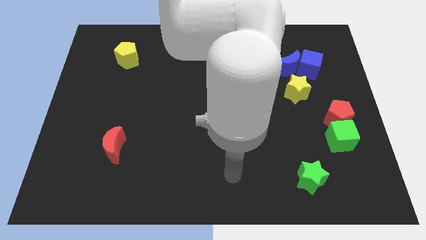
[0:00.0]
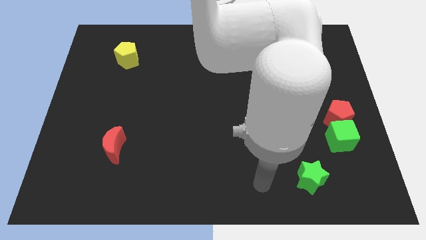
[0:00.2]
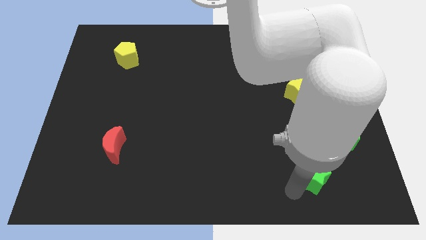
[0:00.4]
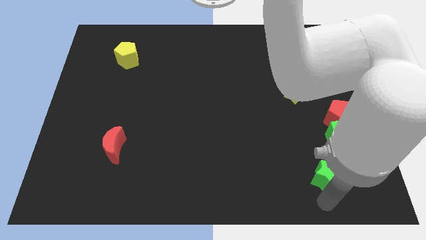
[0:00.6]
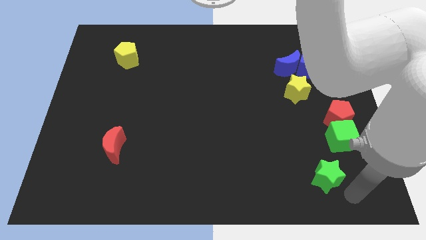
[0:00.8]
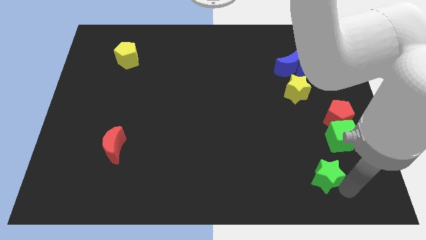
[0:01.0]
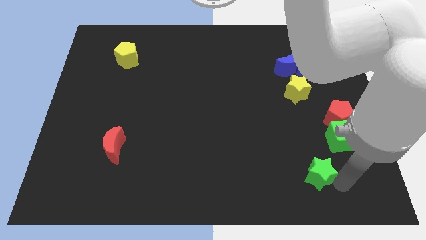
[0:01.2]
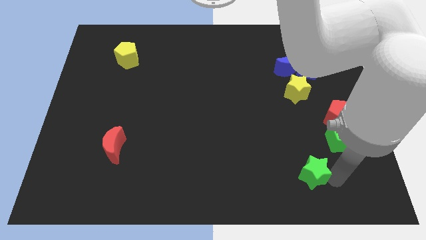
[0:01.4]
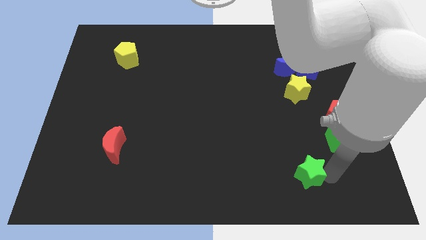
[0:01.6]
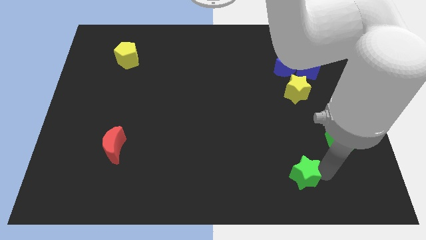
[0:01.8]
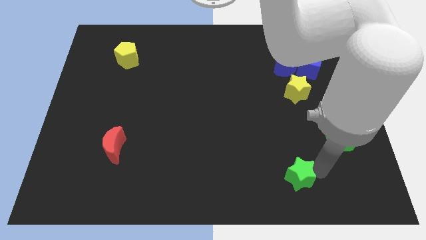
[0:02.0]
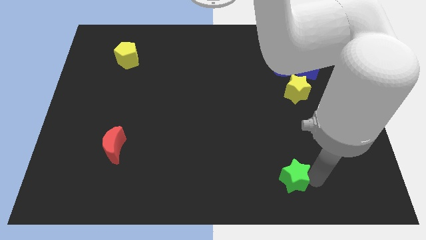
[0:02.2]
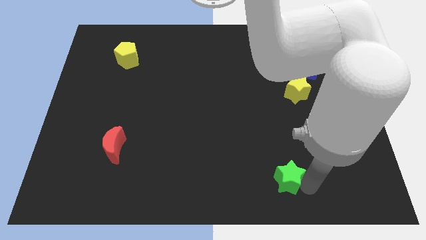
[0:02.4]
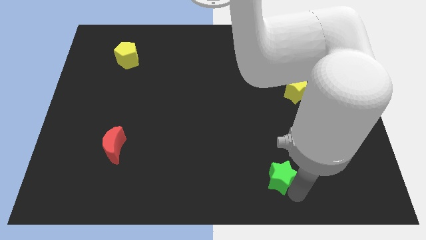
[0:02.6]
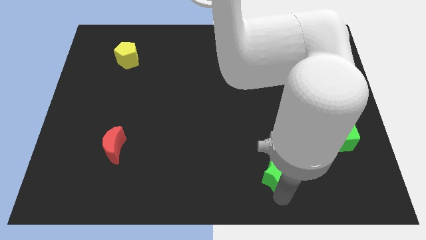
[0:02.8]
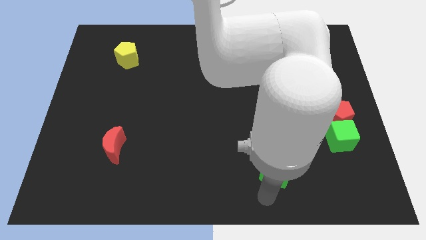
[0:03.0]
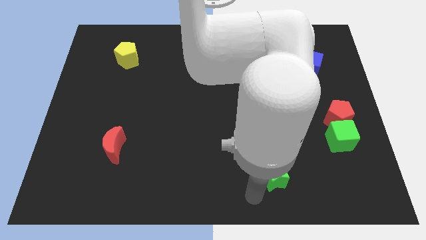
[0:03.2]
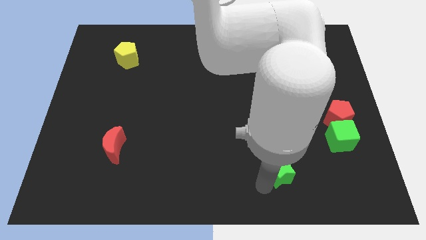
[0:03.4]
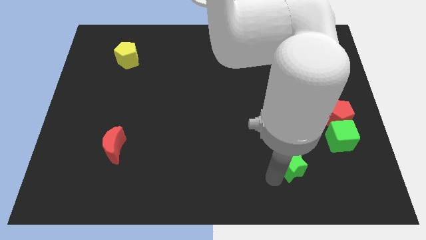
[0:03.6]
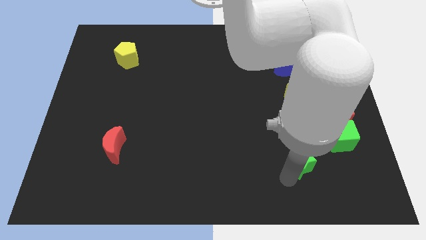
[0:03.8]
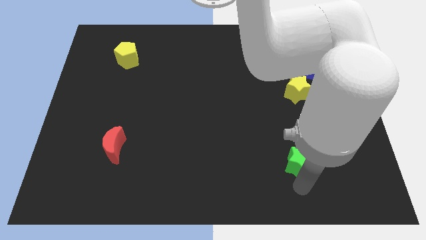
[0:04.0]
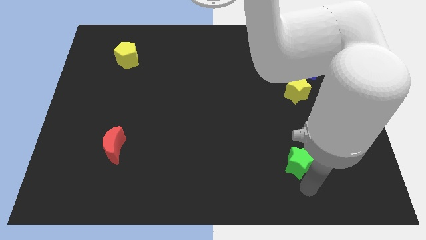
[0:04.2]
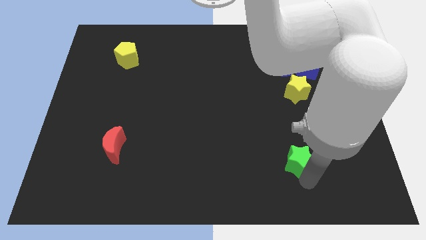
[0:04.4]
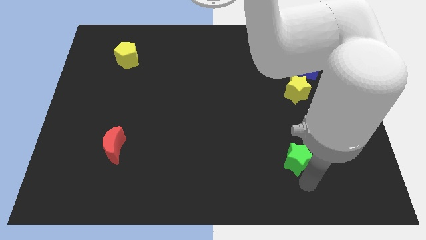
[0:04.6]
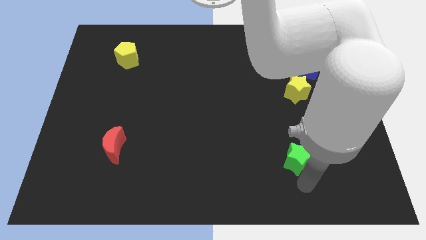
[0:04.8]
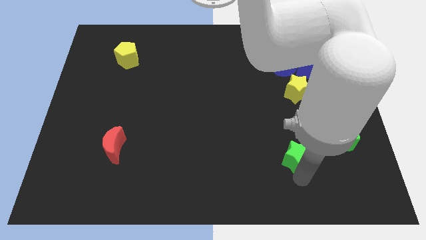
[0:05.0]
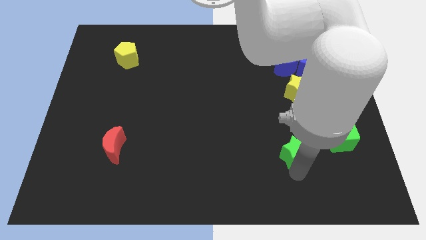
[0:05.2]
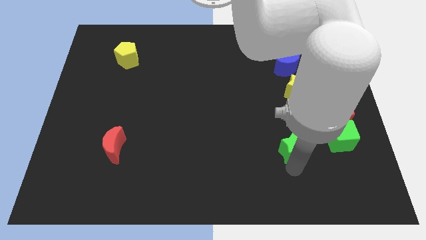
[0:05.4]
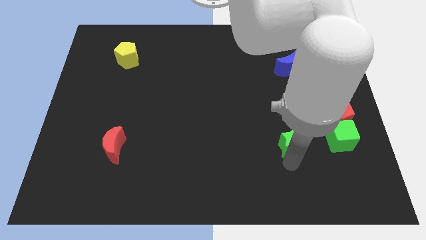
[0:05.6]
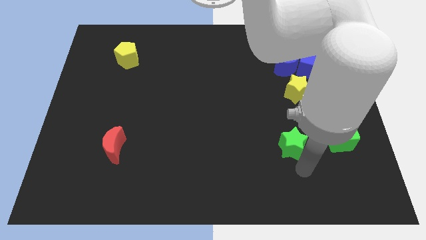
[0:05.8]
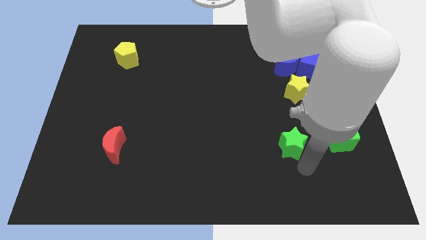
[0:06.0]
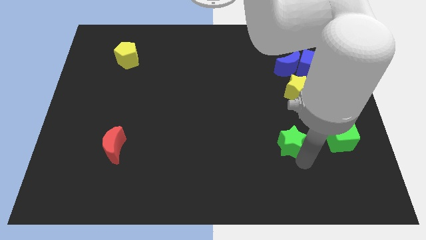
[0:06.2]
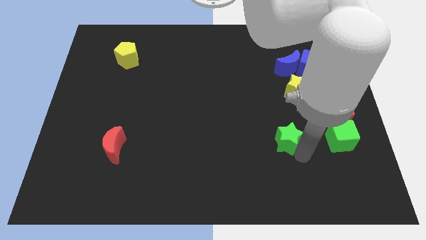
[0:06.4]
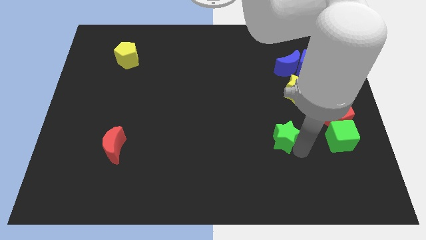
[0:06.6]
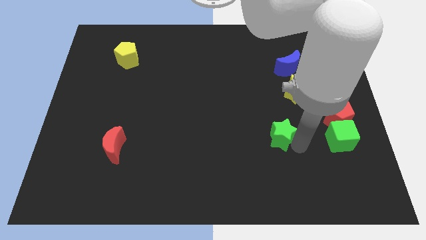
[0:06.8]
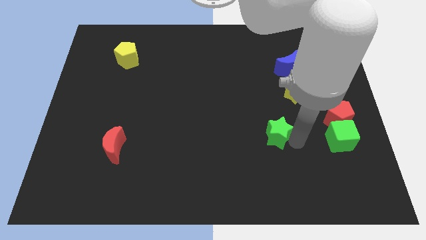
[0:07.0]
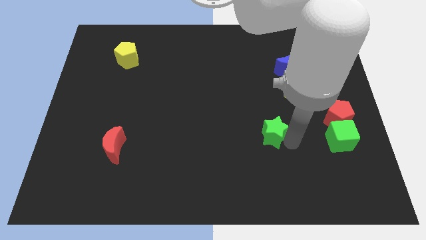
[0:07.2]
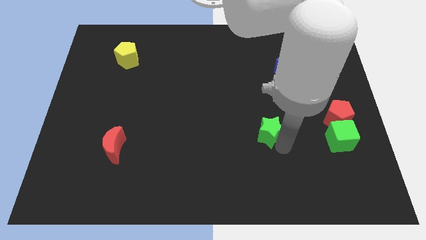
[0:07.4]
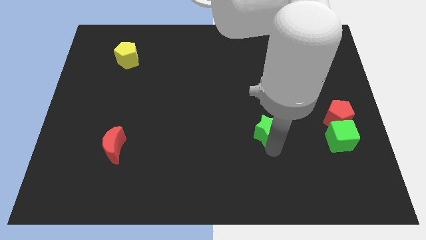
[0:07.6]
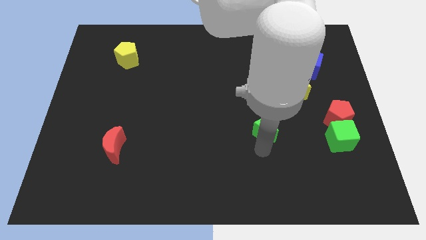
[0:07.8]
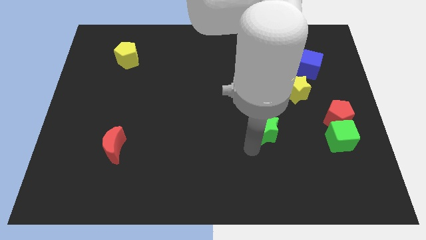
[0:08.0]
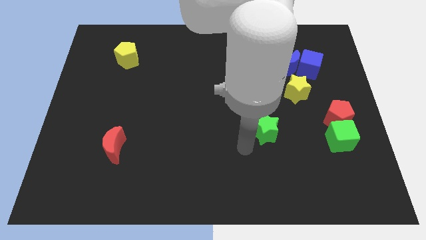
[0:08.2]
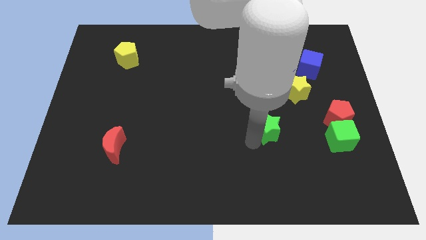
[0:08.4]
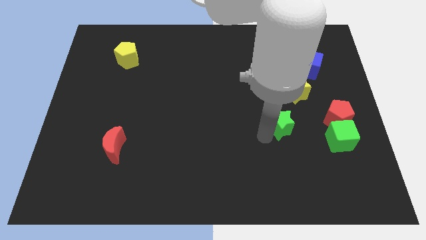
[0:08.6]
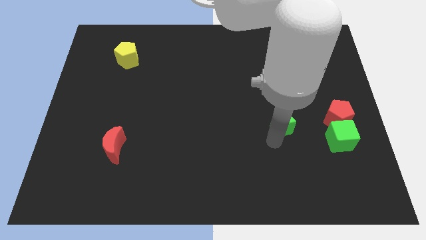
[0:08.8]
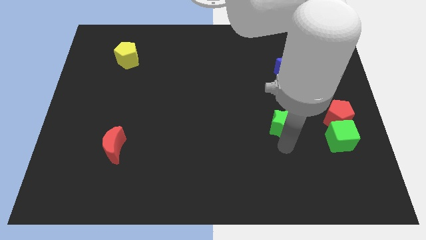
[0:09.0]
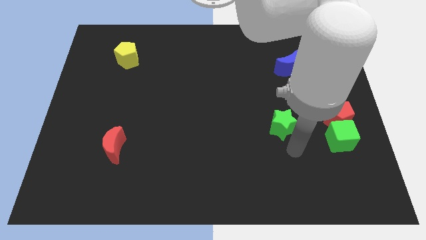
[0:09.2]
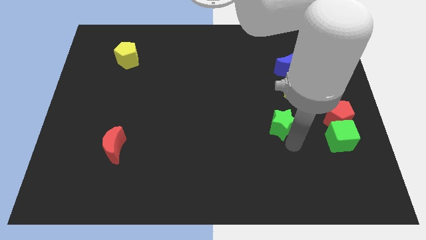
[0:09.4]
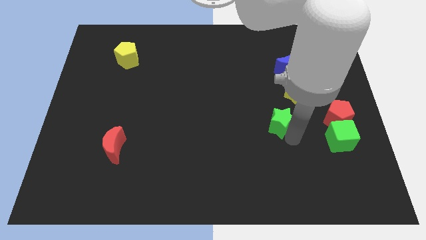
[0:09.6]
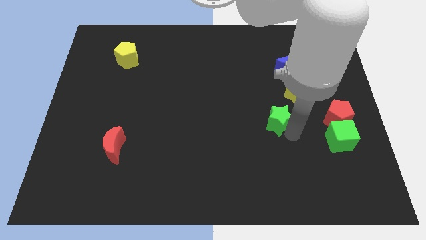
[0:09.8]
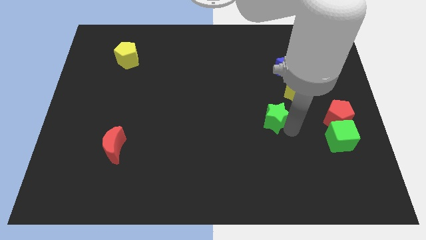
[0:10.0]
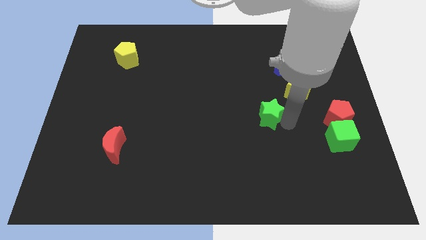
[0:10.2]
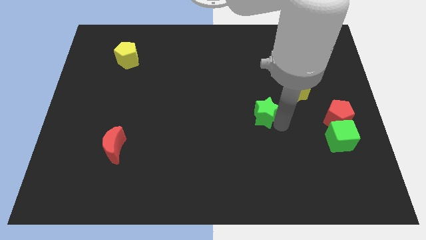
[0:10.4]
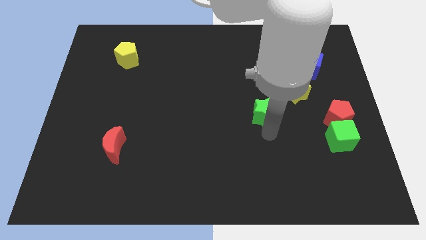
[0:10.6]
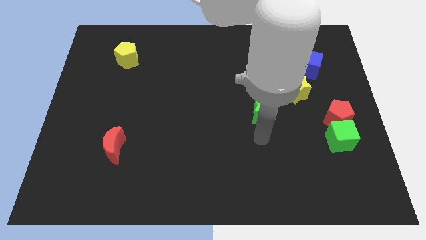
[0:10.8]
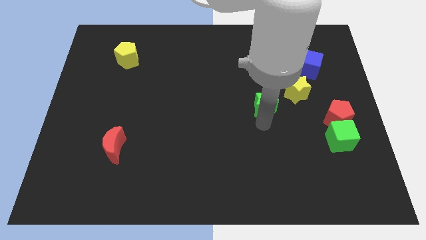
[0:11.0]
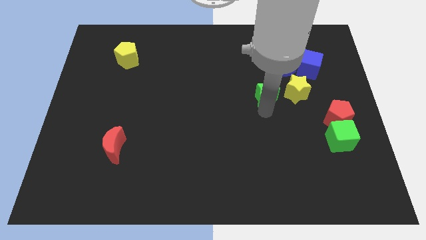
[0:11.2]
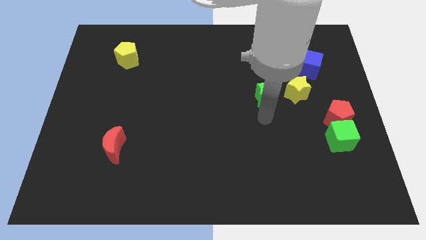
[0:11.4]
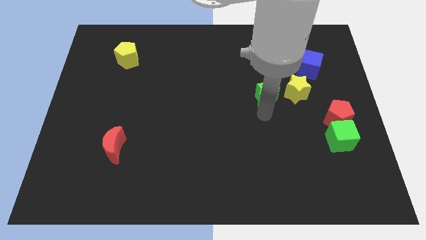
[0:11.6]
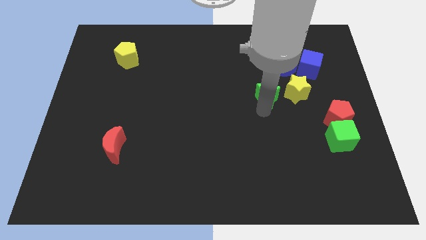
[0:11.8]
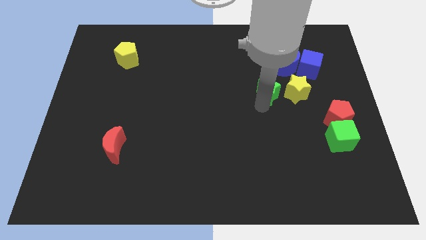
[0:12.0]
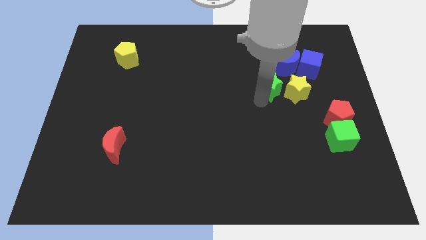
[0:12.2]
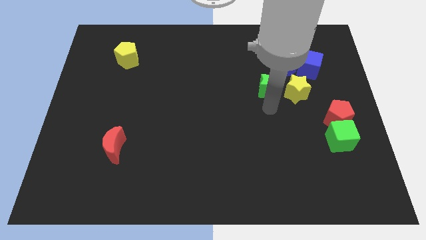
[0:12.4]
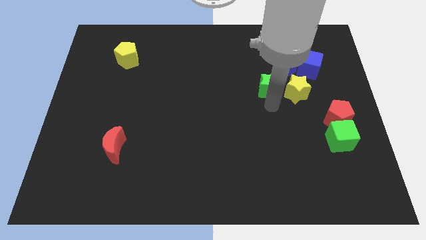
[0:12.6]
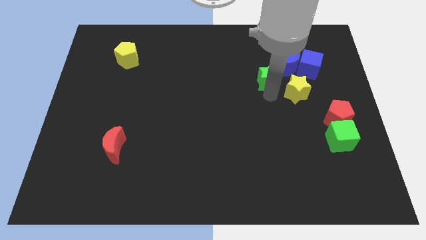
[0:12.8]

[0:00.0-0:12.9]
move the green star to the left side of the blue cube
